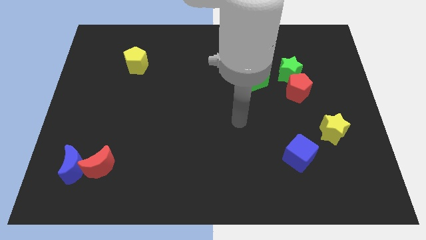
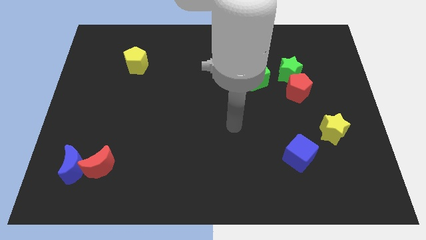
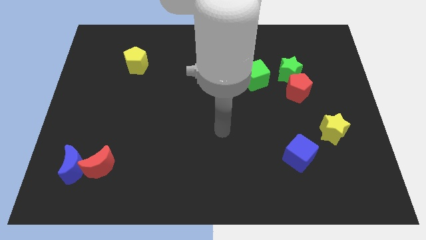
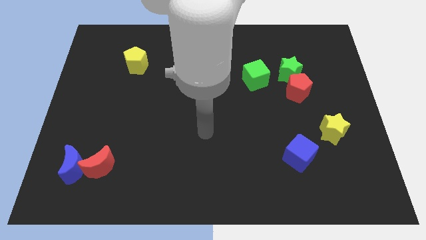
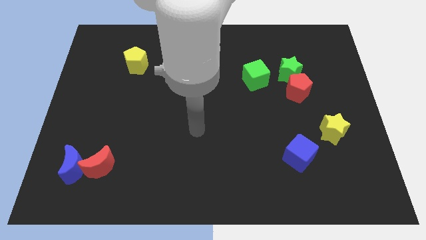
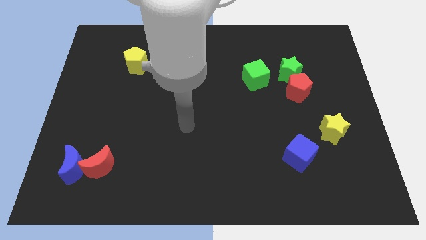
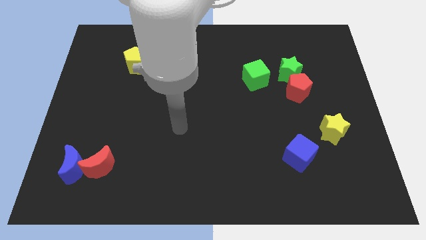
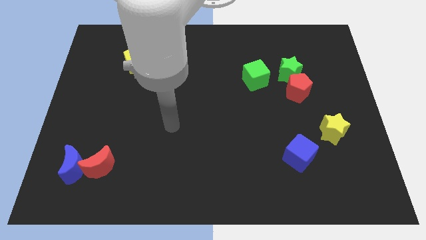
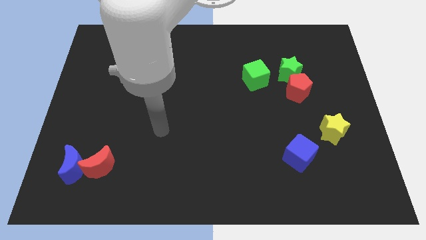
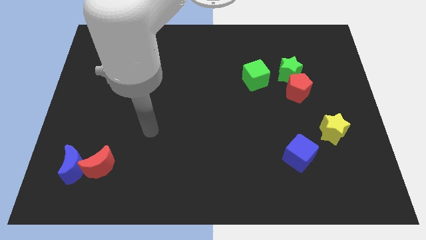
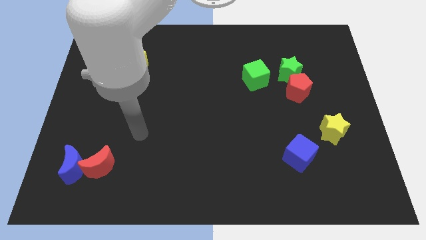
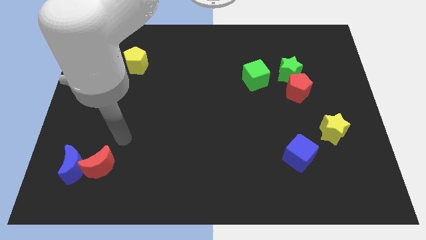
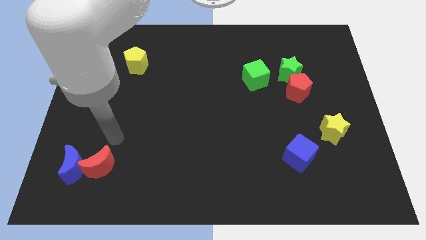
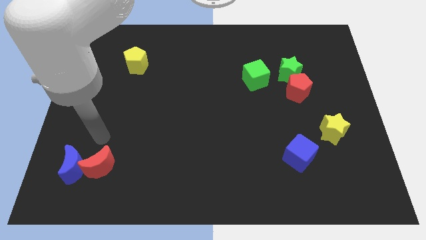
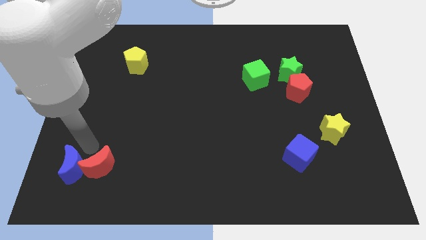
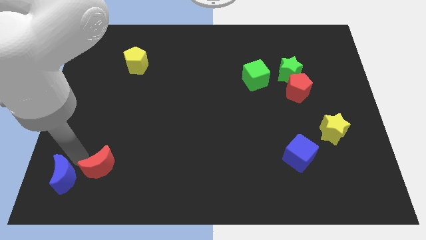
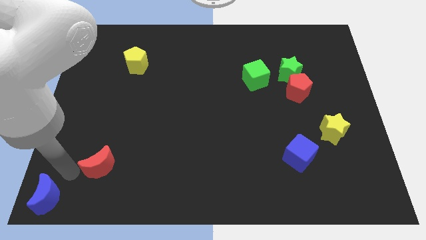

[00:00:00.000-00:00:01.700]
move the red moon away from the blue moon

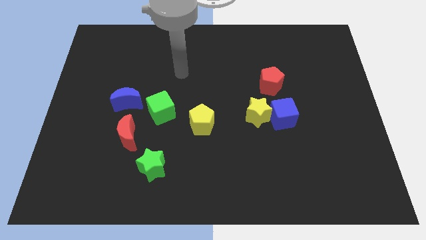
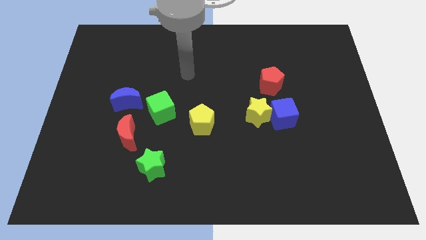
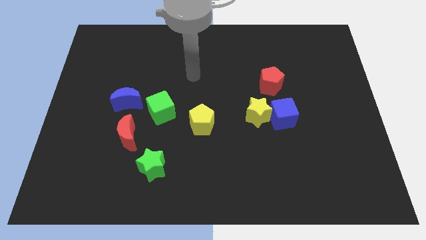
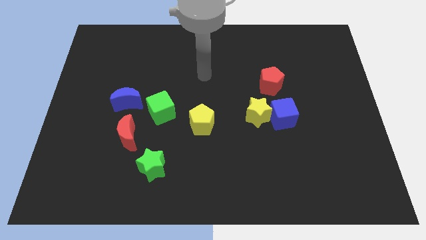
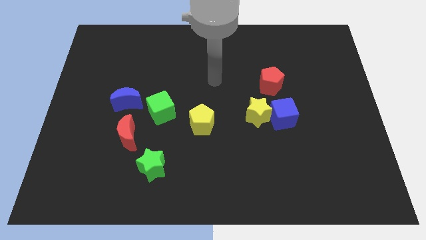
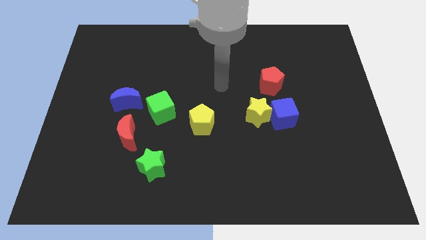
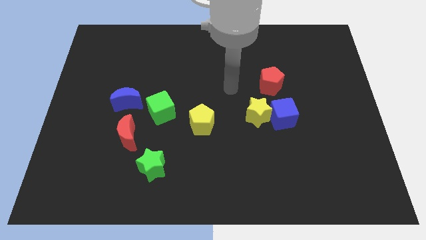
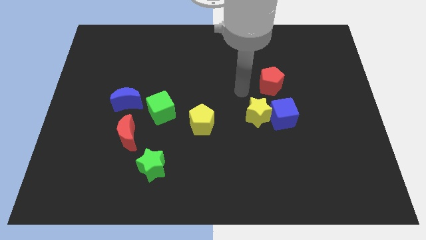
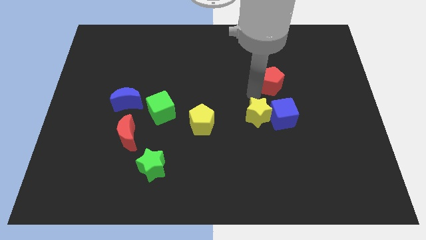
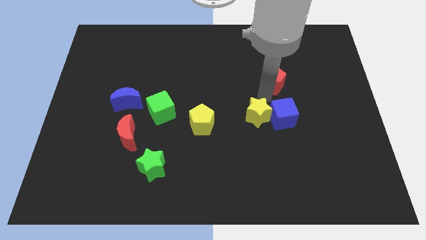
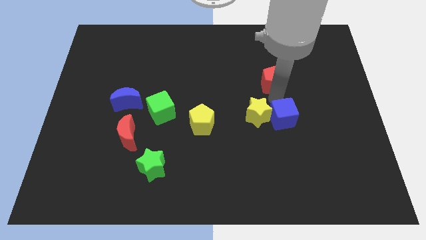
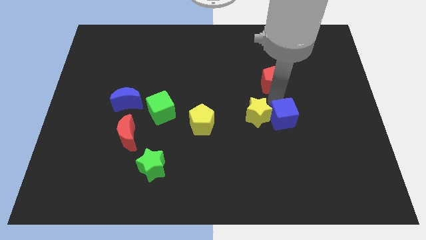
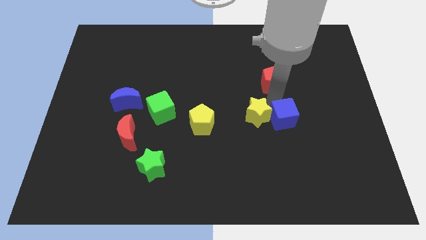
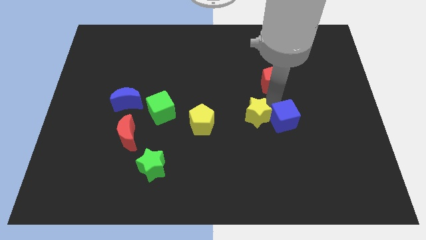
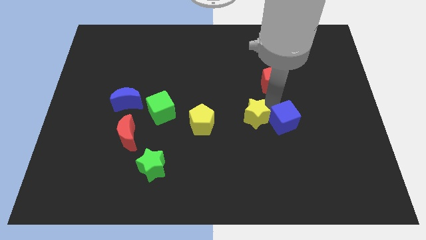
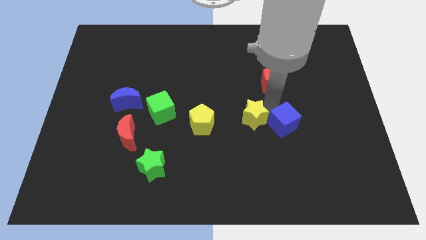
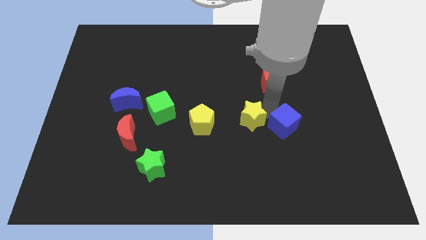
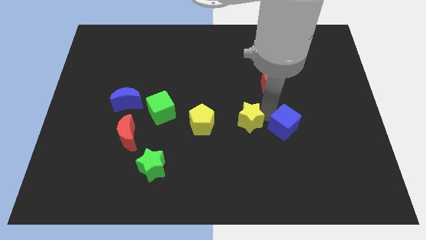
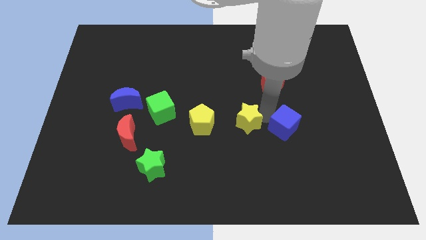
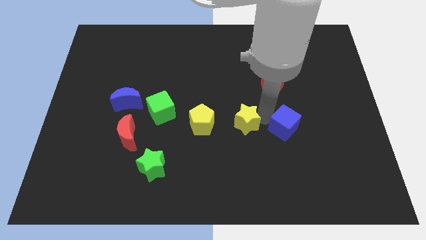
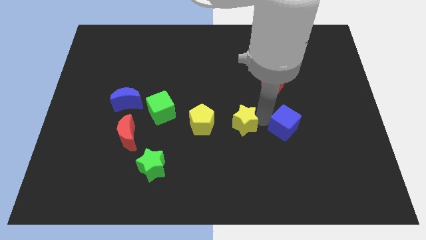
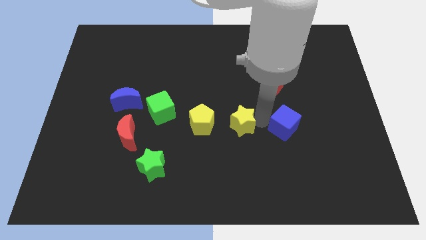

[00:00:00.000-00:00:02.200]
pull the yellow star apart from the blue cube and red pentagon

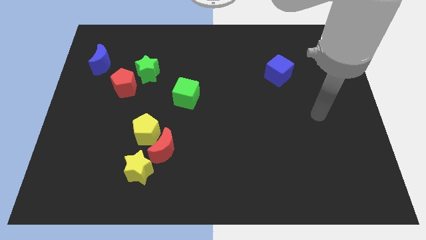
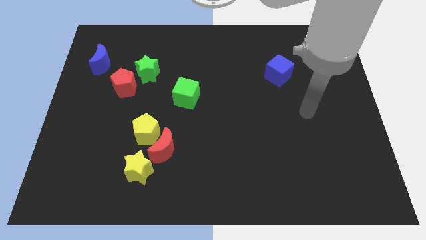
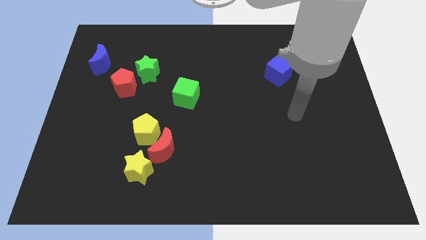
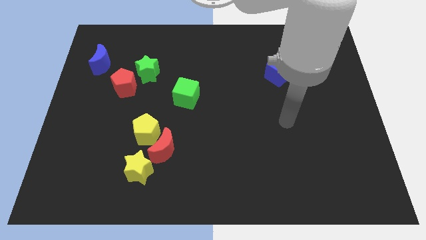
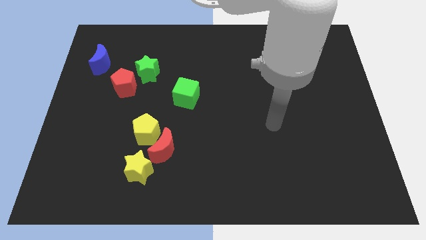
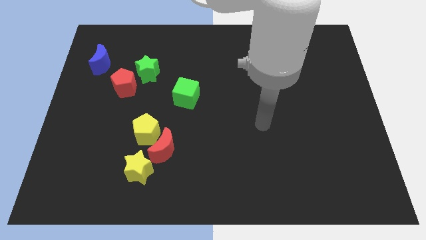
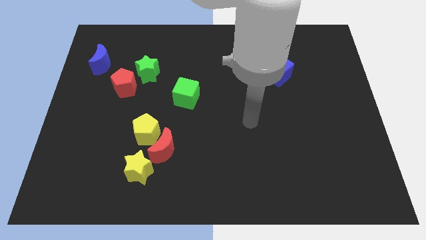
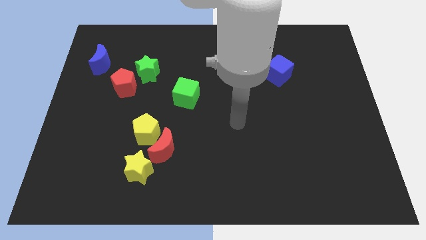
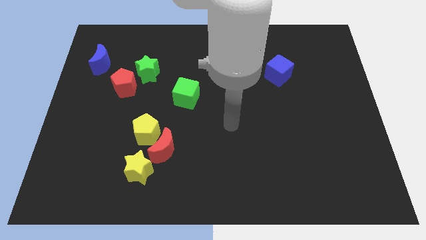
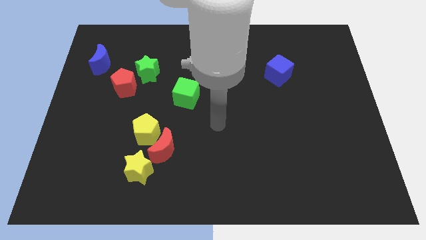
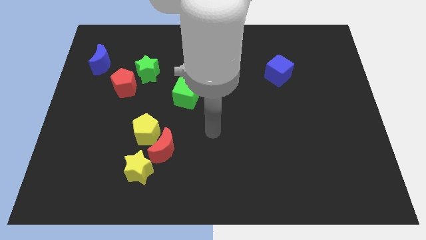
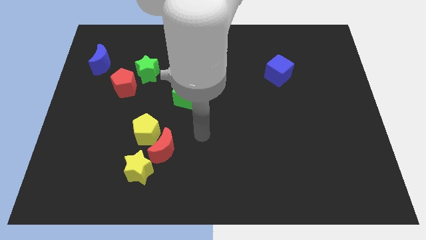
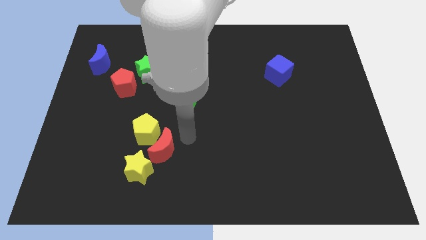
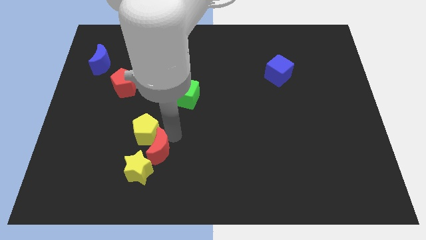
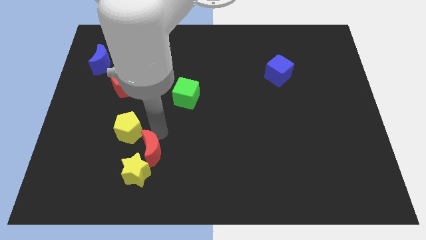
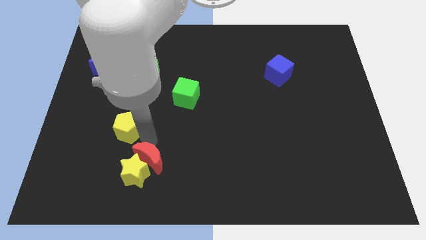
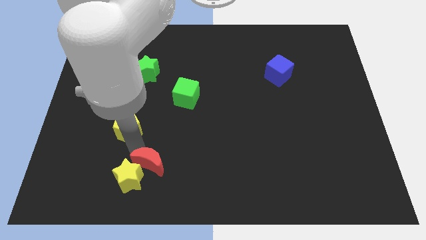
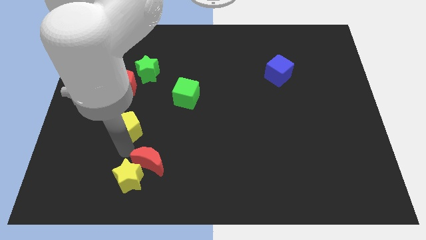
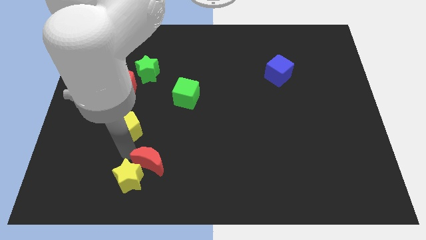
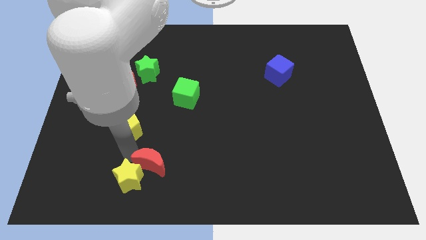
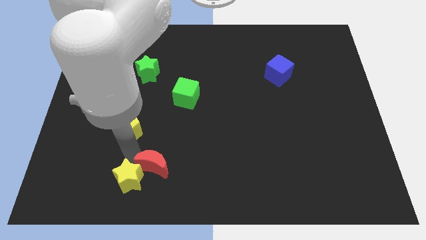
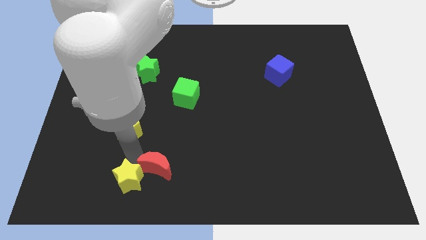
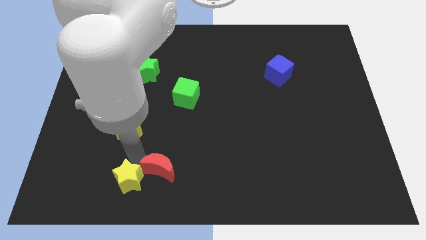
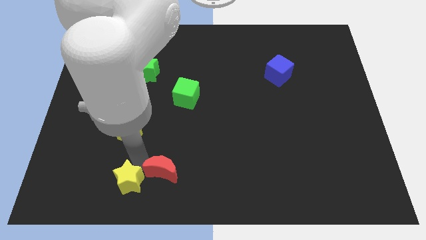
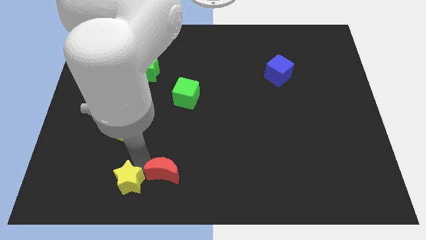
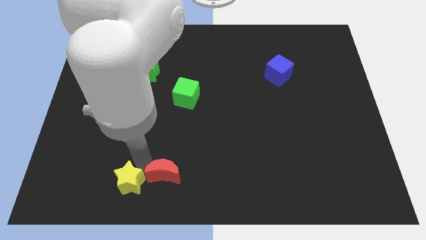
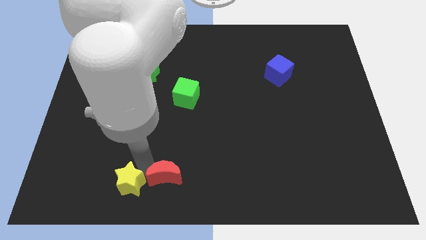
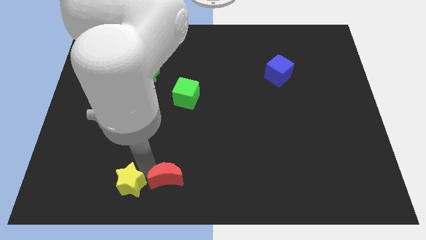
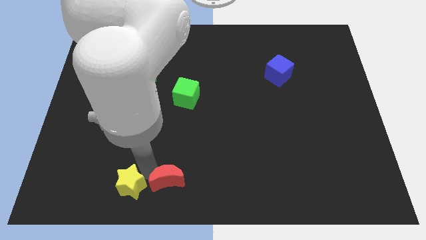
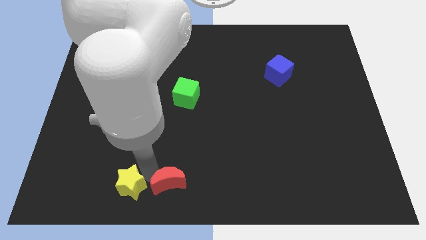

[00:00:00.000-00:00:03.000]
separate the red moon from the yellow pentagon and yellow star

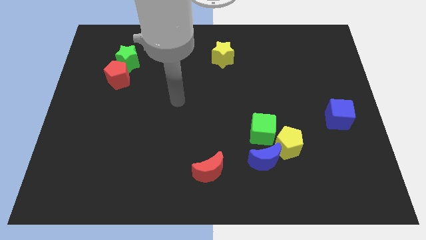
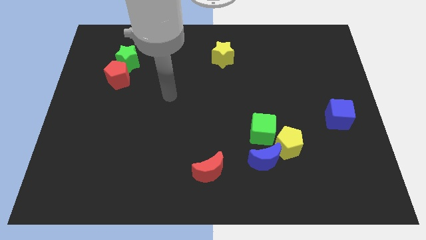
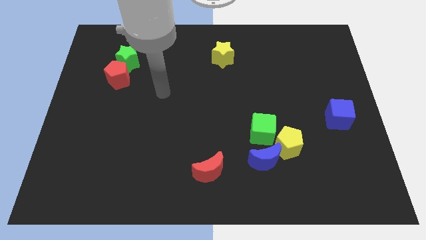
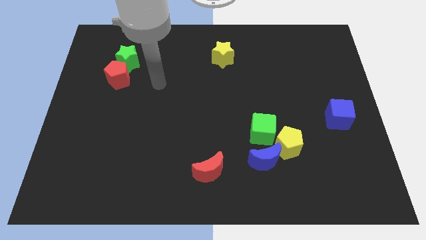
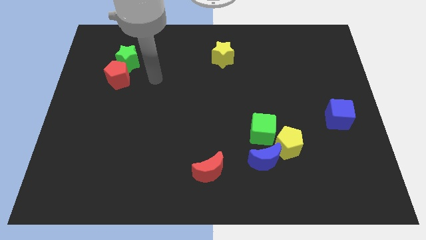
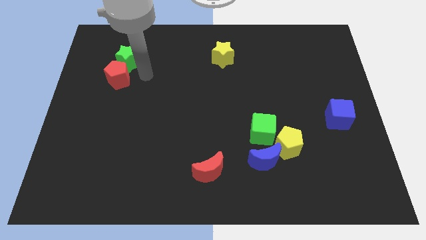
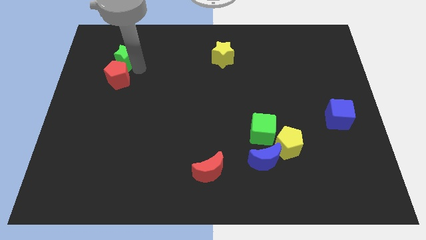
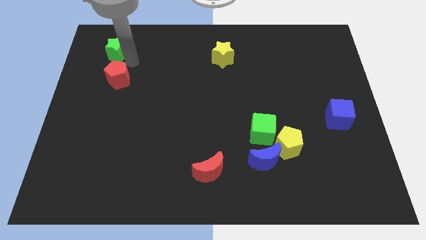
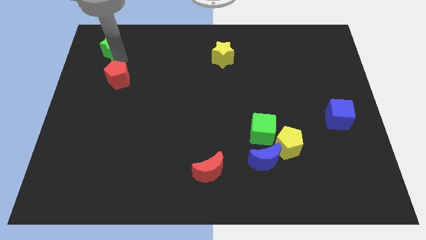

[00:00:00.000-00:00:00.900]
move the red pentagon away from the green star

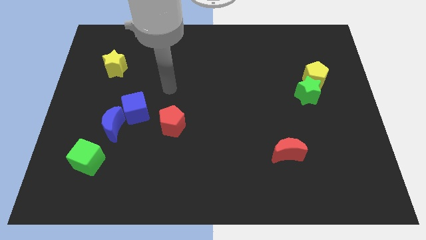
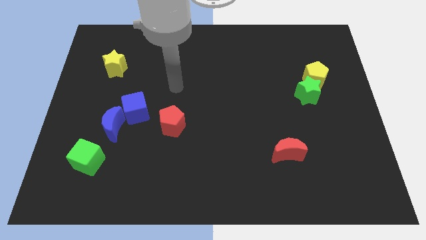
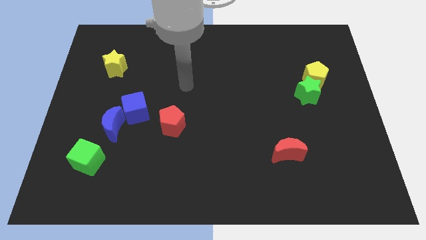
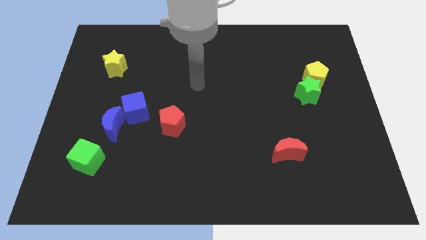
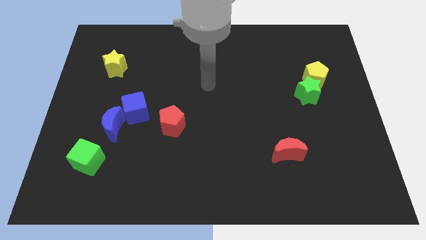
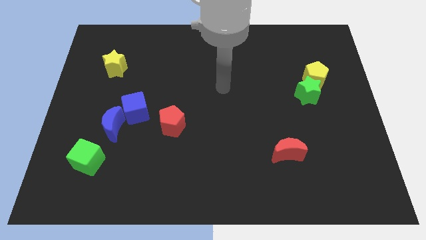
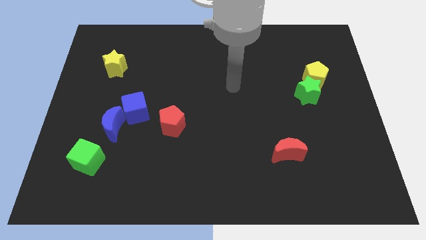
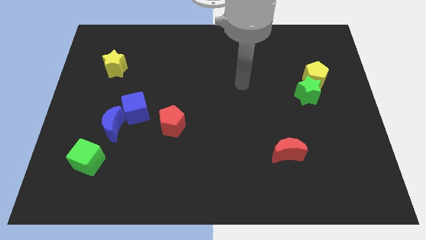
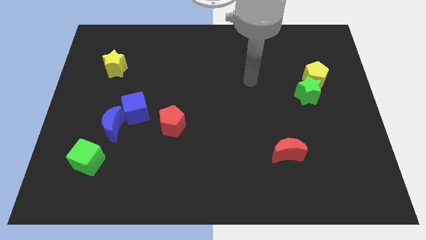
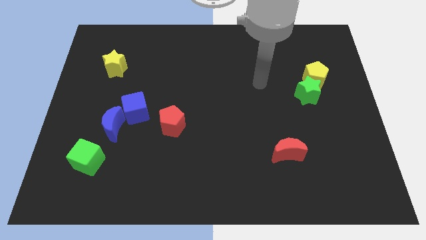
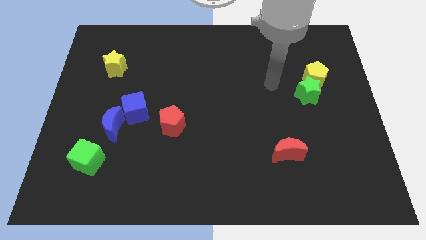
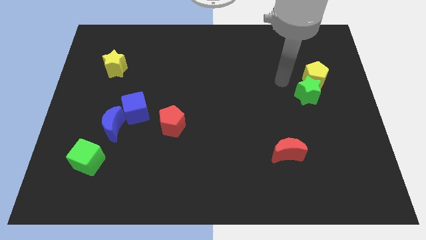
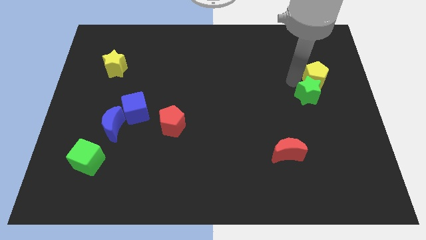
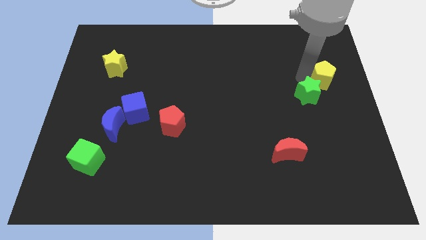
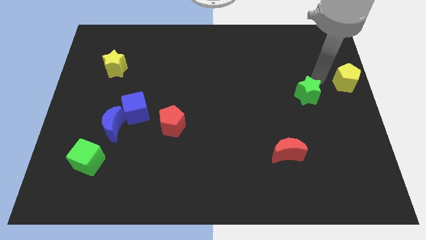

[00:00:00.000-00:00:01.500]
move the green star away from the yellow pentagon
